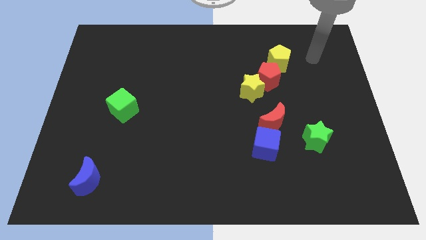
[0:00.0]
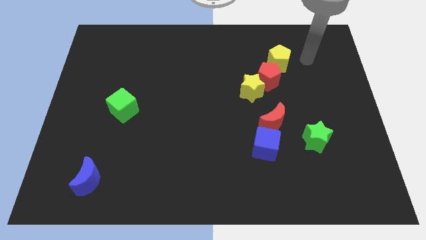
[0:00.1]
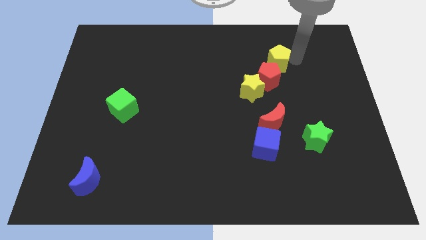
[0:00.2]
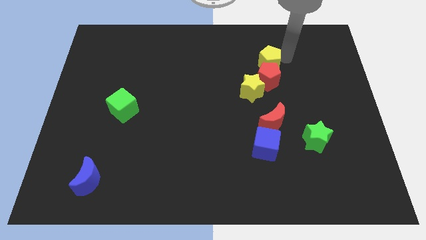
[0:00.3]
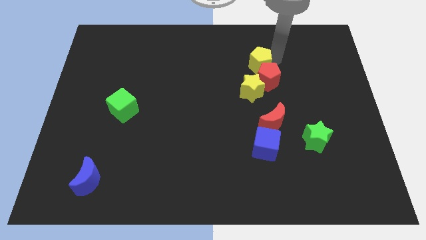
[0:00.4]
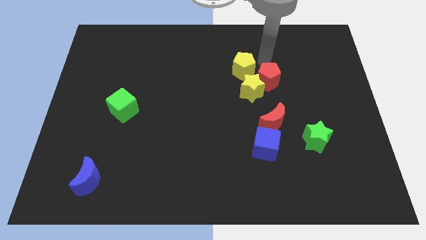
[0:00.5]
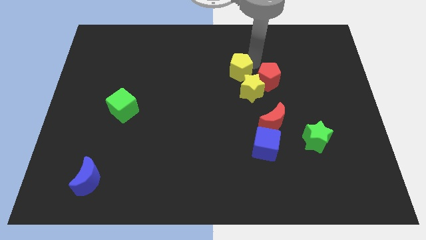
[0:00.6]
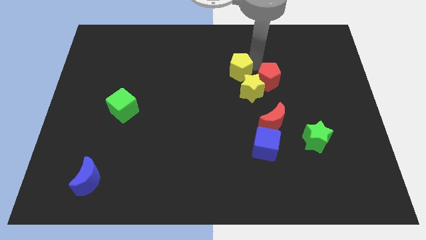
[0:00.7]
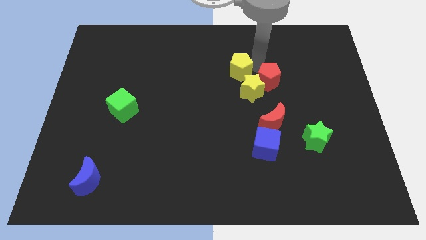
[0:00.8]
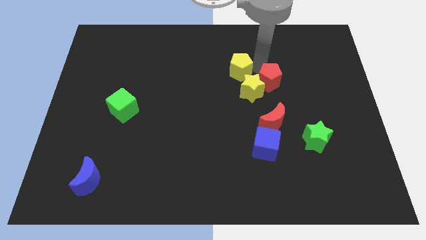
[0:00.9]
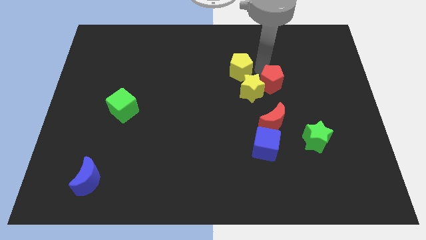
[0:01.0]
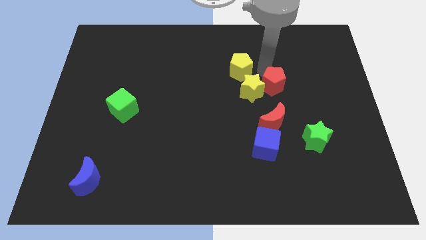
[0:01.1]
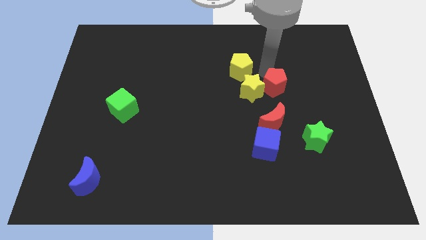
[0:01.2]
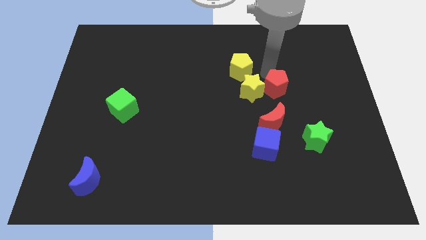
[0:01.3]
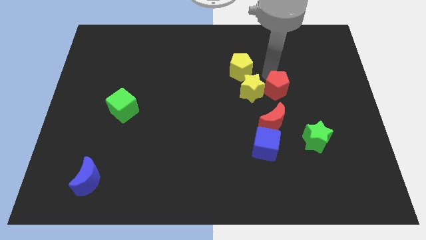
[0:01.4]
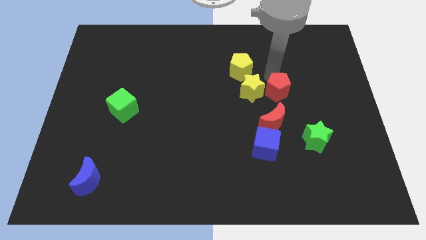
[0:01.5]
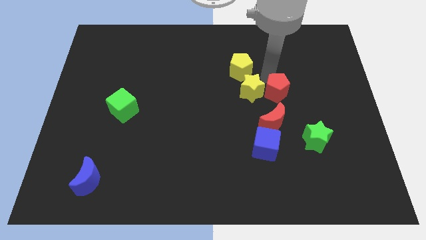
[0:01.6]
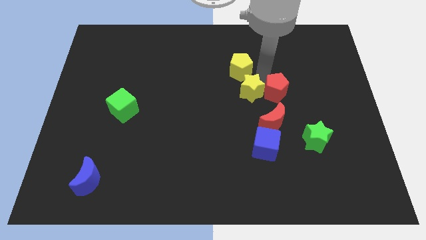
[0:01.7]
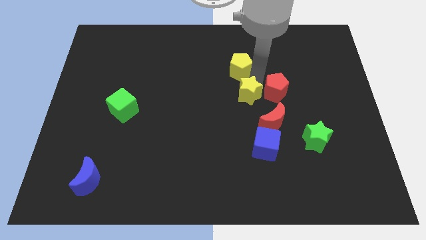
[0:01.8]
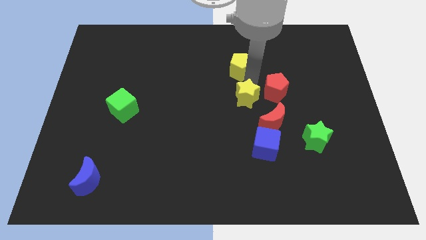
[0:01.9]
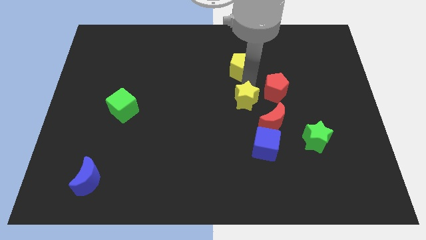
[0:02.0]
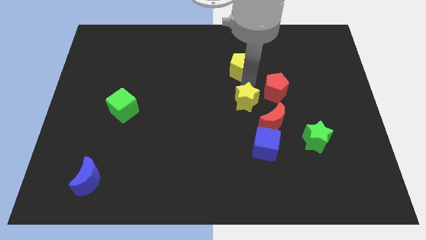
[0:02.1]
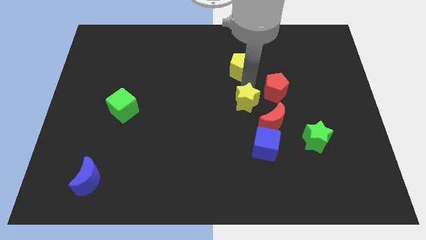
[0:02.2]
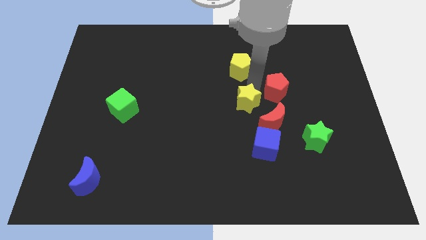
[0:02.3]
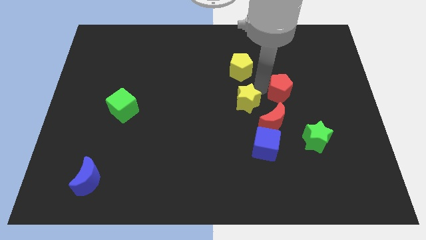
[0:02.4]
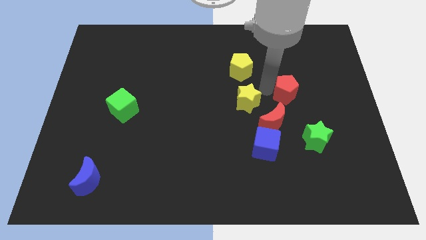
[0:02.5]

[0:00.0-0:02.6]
separate the red pentagon from the yellow star and yellow pentagon

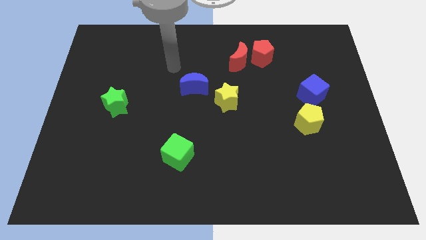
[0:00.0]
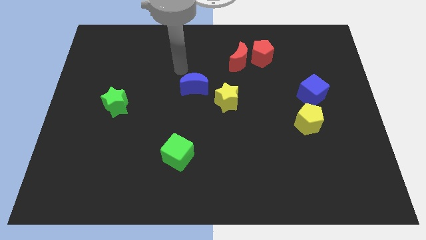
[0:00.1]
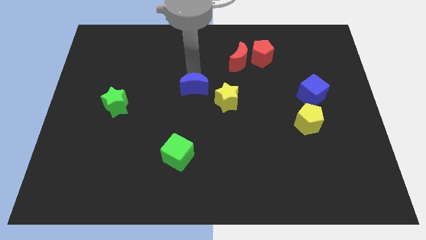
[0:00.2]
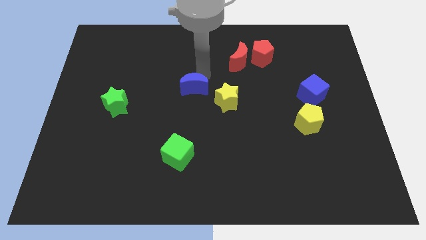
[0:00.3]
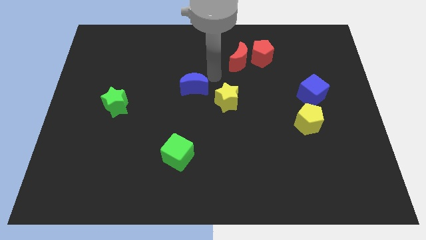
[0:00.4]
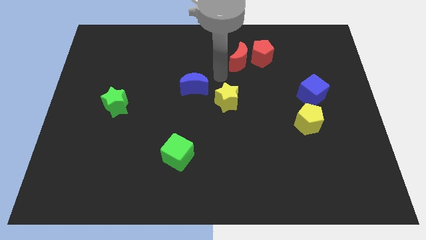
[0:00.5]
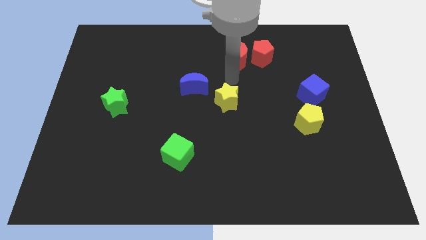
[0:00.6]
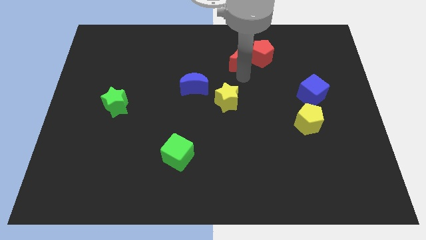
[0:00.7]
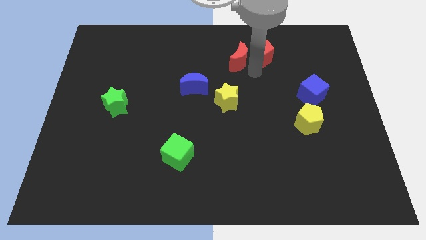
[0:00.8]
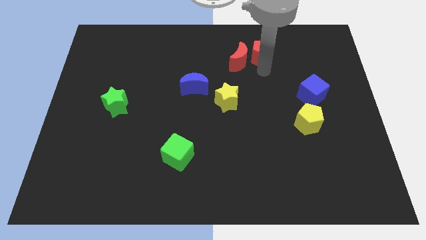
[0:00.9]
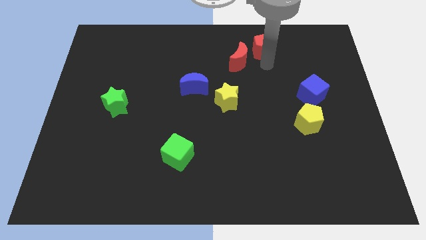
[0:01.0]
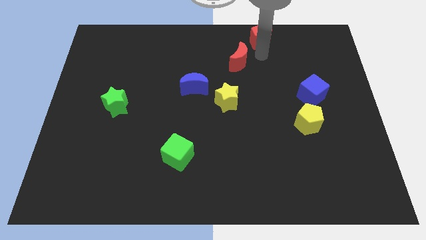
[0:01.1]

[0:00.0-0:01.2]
move the red moon away from the red pentagon

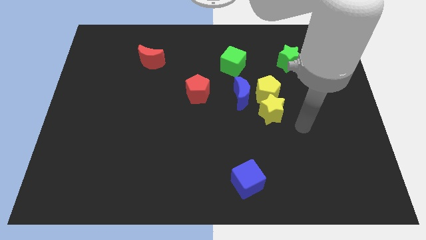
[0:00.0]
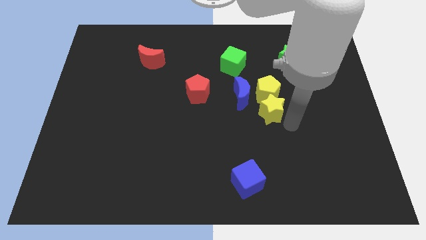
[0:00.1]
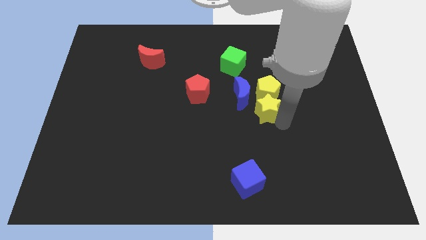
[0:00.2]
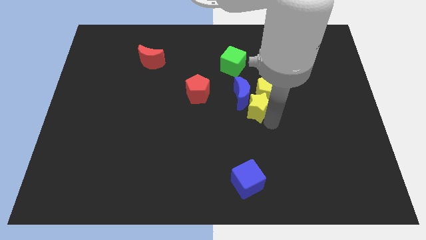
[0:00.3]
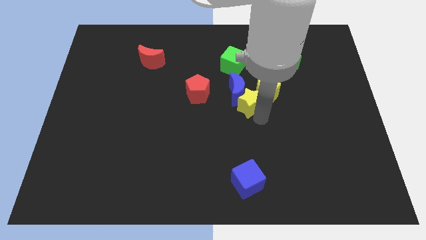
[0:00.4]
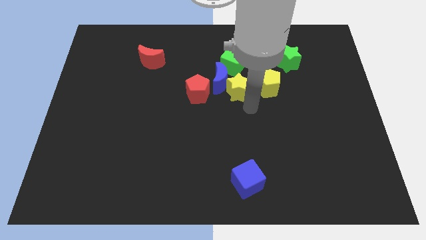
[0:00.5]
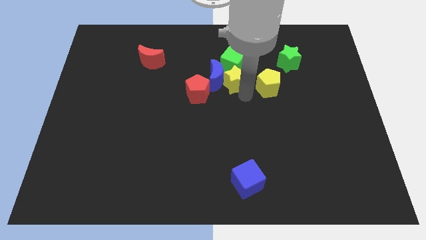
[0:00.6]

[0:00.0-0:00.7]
separate the yellow pentagon from the yellow star and blue moon

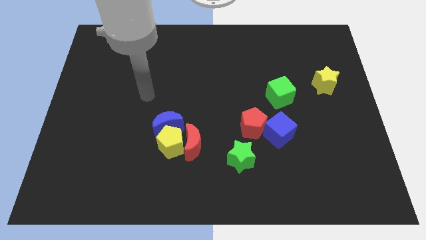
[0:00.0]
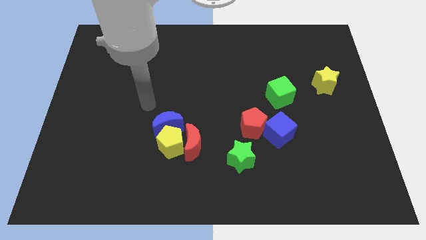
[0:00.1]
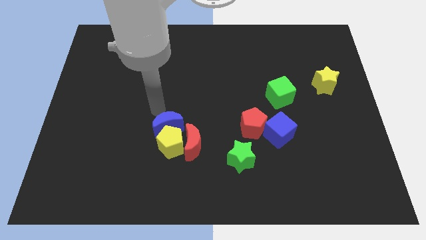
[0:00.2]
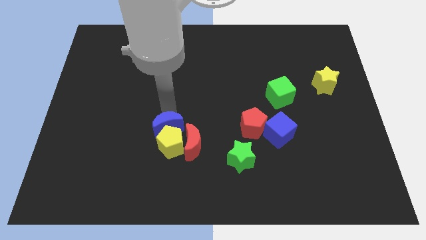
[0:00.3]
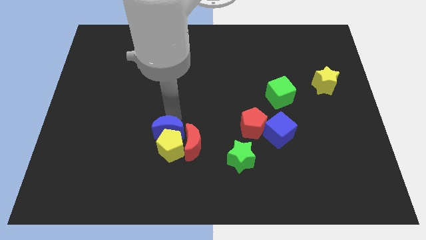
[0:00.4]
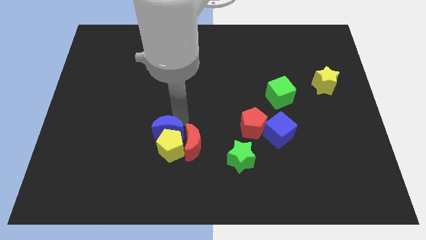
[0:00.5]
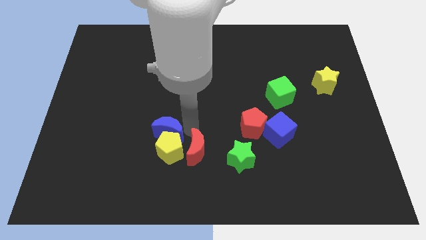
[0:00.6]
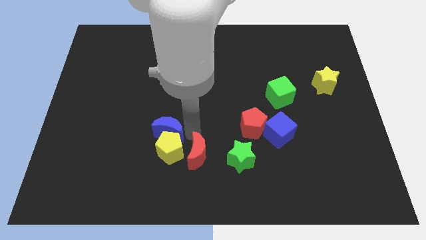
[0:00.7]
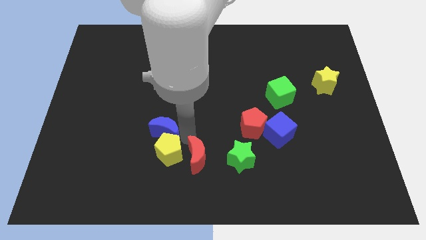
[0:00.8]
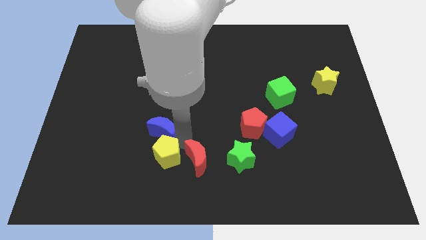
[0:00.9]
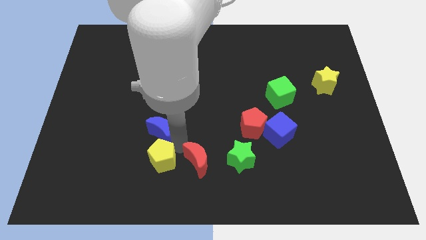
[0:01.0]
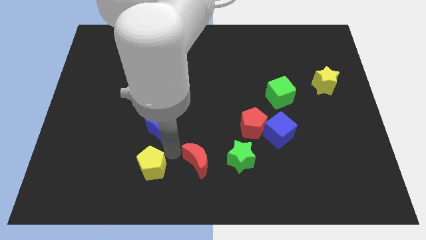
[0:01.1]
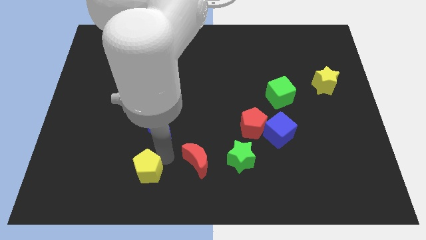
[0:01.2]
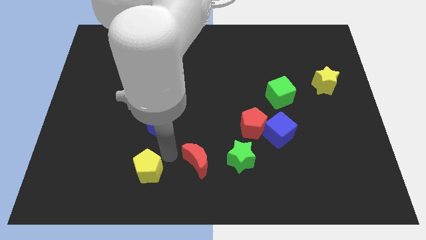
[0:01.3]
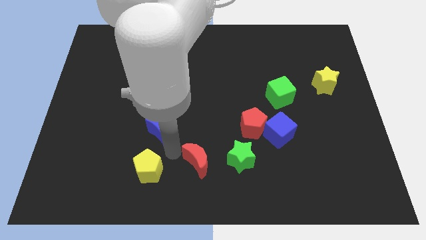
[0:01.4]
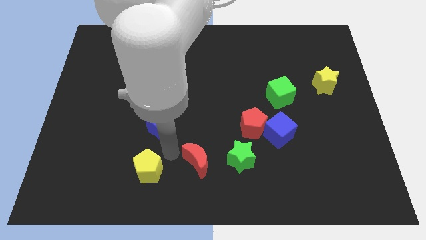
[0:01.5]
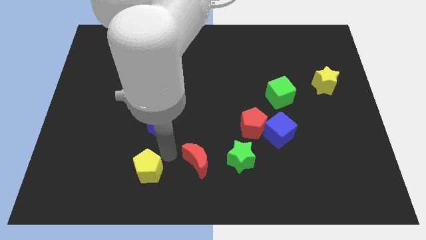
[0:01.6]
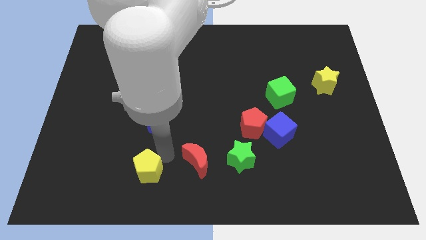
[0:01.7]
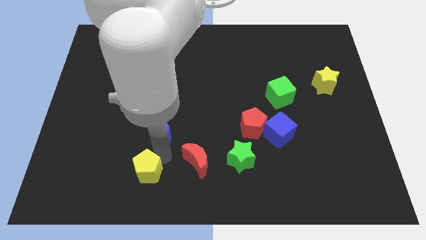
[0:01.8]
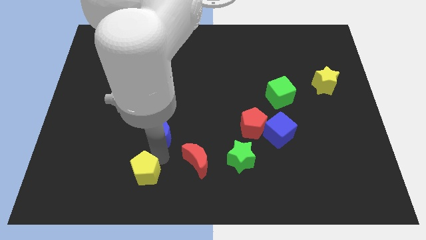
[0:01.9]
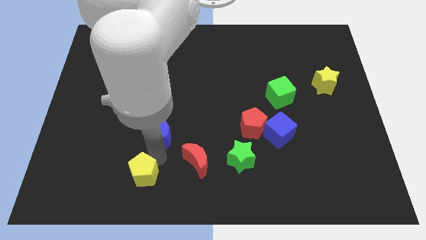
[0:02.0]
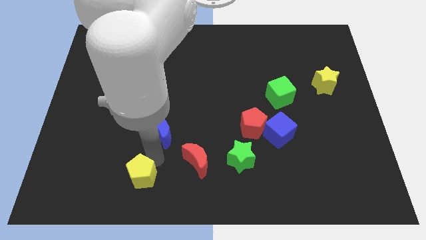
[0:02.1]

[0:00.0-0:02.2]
separate the yellow pentagon from the red moon and blue moon

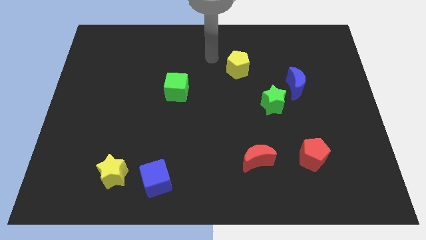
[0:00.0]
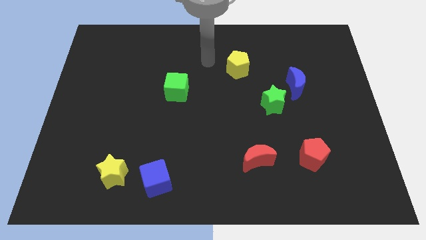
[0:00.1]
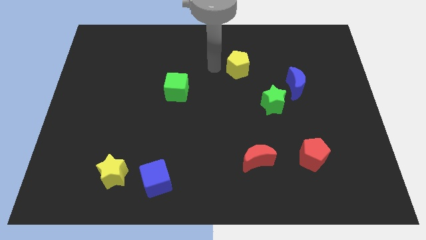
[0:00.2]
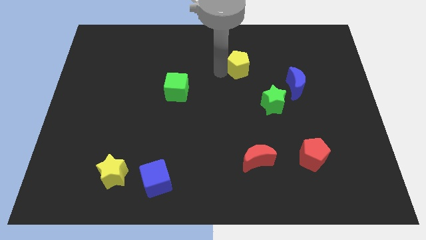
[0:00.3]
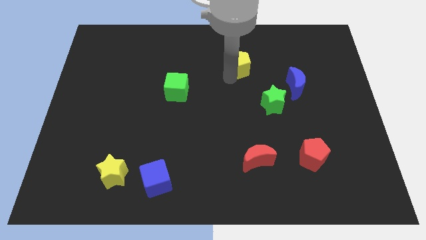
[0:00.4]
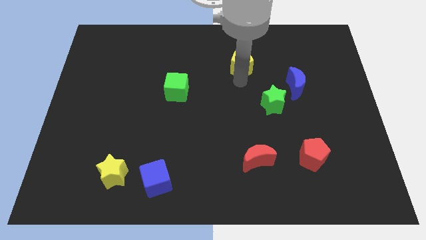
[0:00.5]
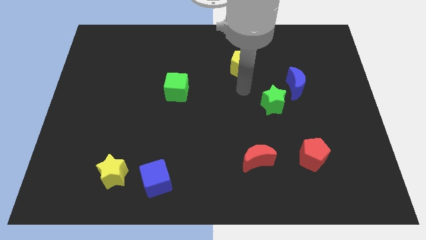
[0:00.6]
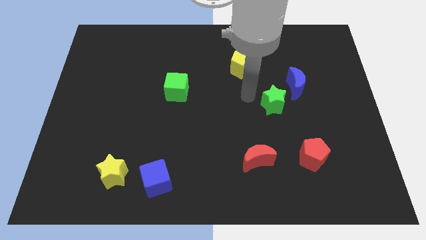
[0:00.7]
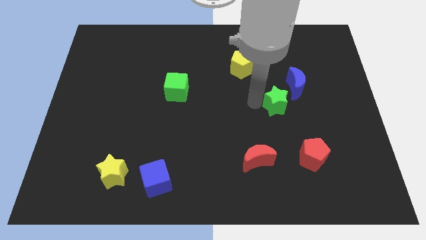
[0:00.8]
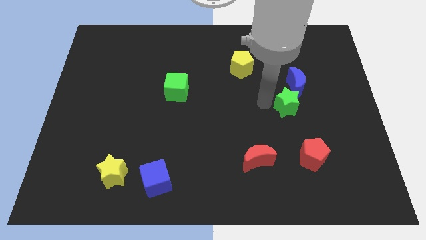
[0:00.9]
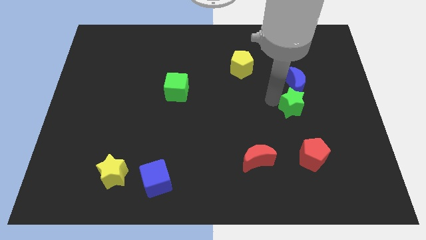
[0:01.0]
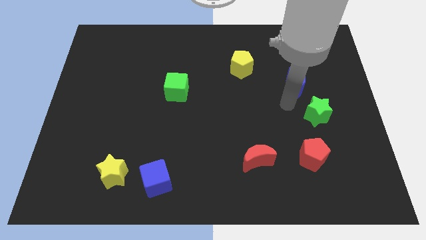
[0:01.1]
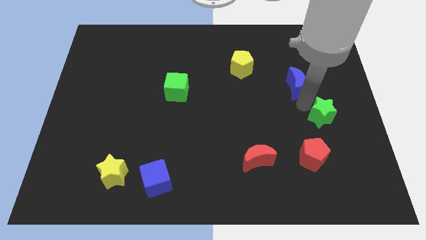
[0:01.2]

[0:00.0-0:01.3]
separate the blue moon from the green star

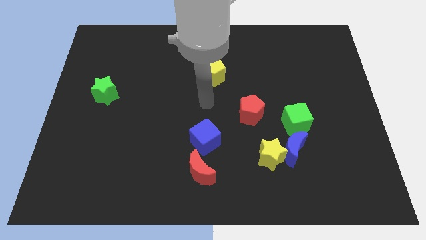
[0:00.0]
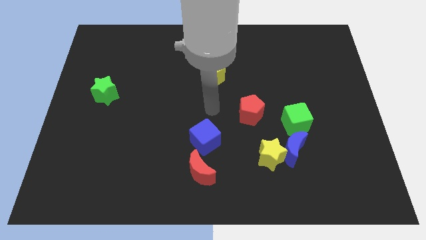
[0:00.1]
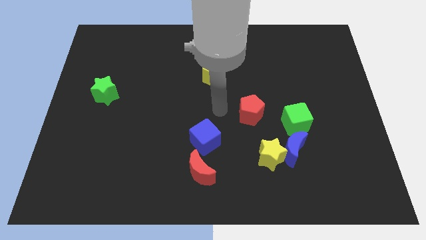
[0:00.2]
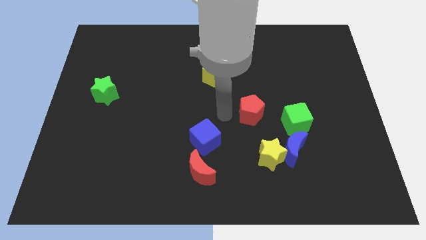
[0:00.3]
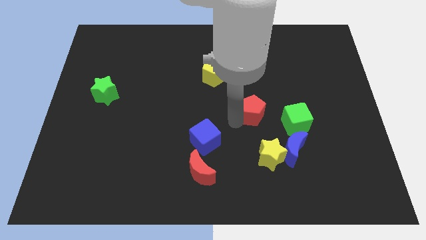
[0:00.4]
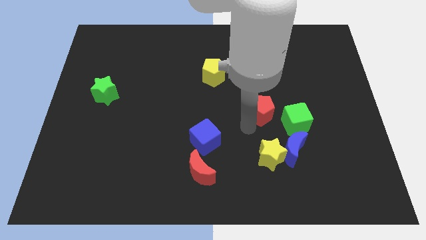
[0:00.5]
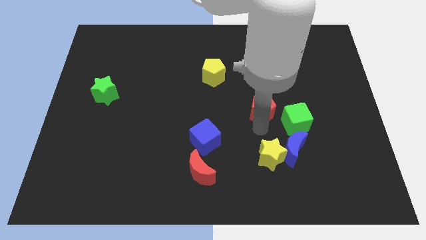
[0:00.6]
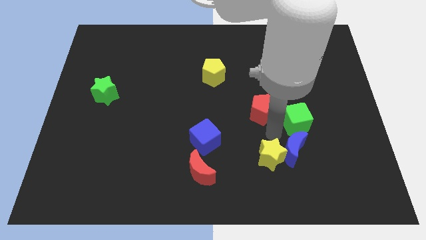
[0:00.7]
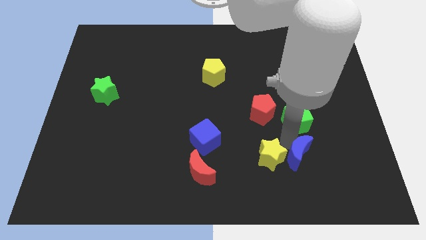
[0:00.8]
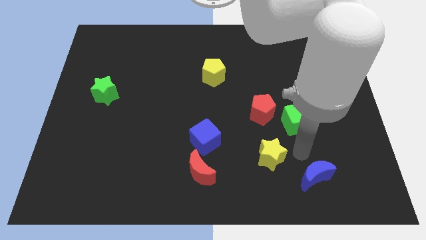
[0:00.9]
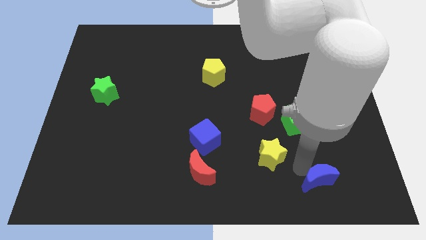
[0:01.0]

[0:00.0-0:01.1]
move the yellow star away from the blue moon

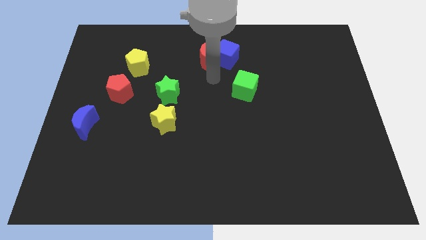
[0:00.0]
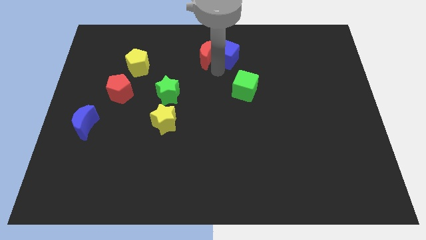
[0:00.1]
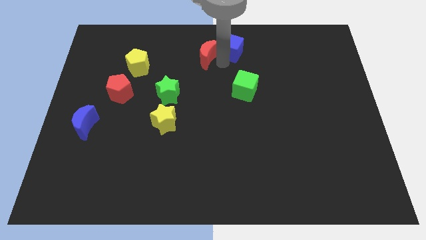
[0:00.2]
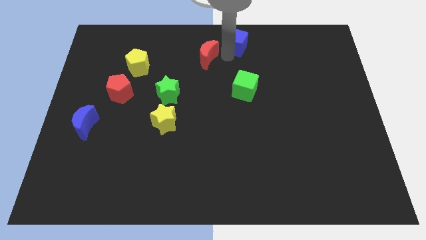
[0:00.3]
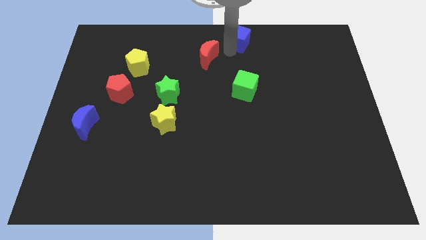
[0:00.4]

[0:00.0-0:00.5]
pull the red moon apart from the blue cube
